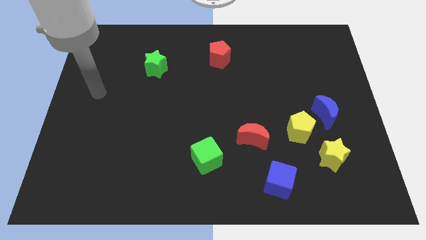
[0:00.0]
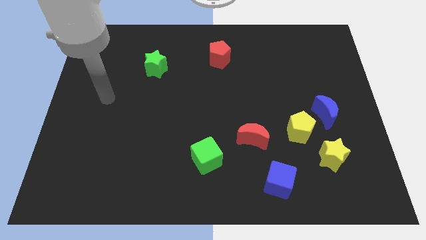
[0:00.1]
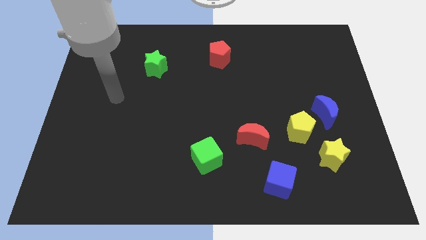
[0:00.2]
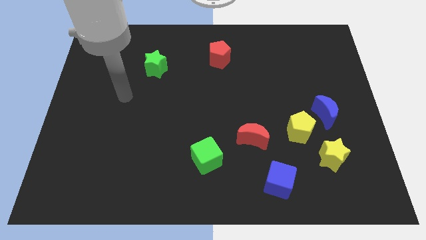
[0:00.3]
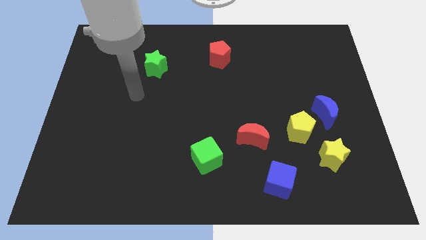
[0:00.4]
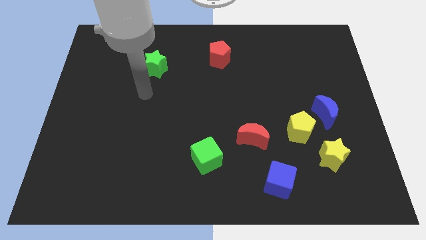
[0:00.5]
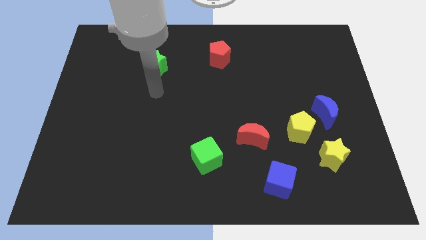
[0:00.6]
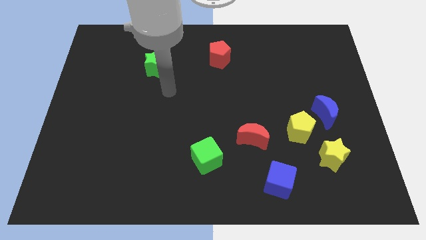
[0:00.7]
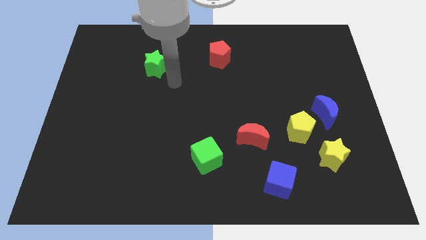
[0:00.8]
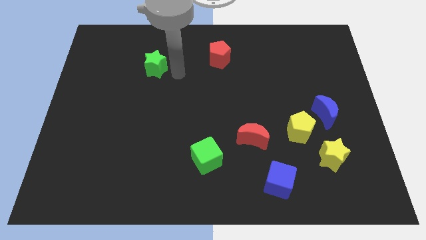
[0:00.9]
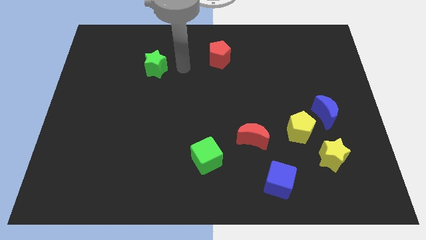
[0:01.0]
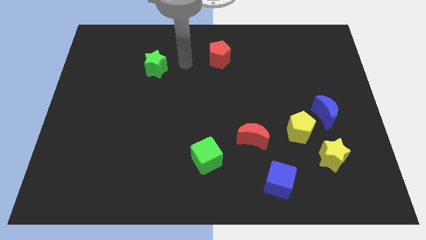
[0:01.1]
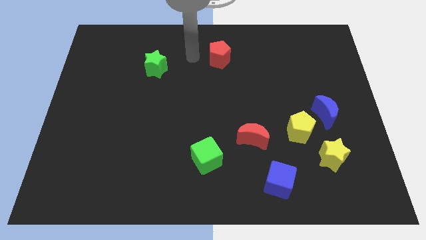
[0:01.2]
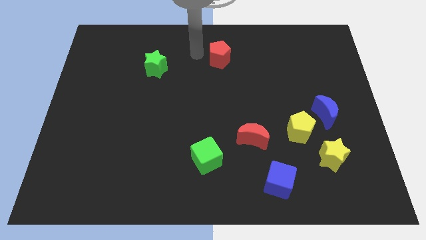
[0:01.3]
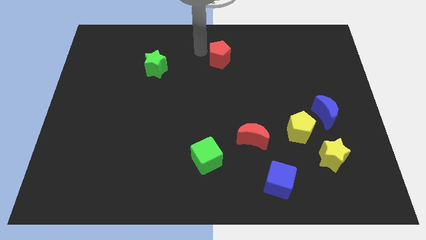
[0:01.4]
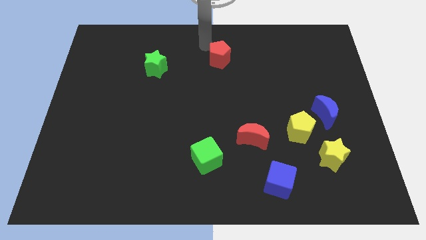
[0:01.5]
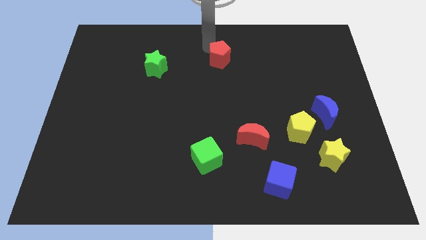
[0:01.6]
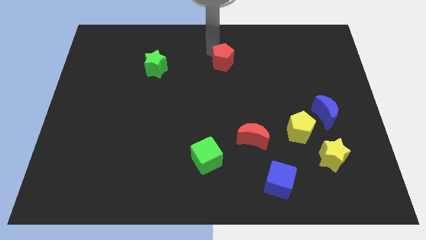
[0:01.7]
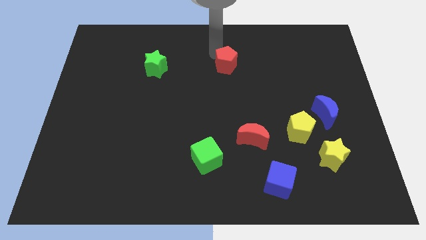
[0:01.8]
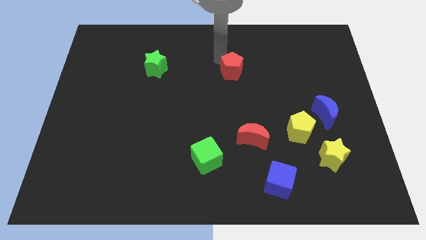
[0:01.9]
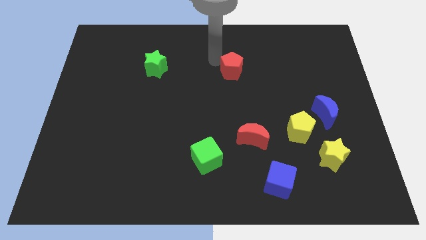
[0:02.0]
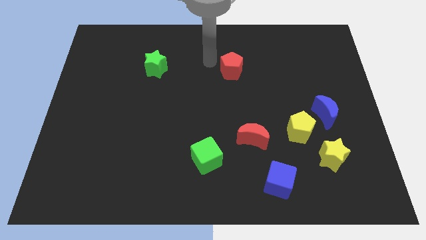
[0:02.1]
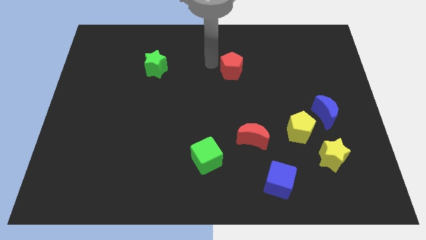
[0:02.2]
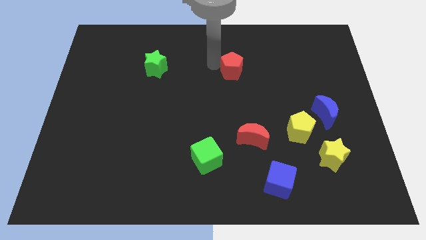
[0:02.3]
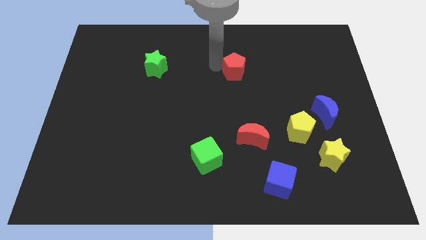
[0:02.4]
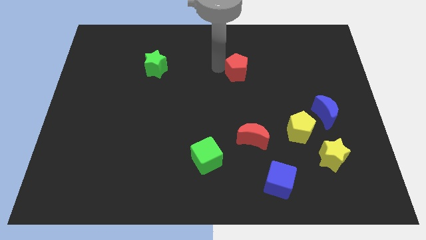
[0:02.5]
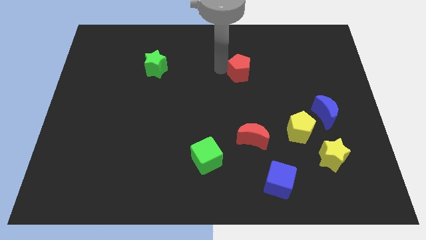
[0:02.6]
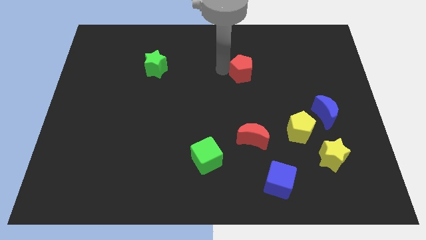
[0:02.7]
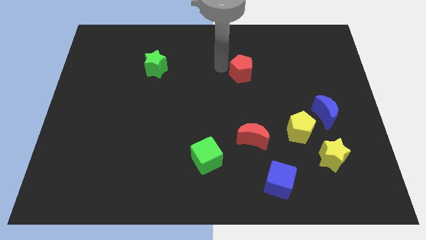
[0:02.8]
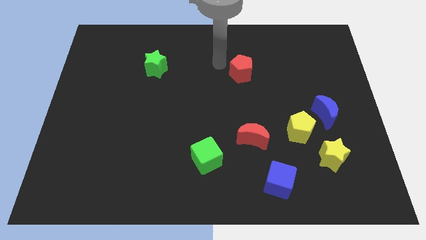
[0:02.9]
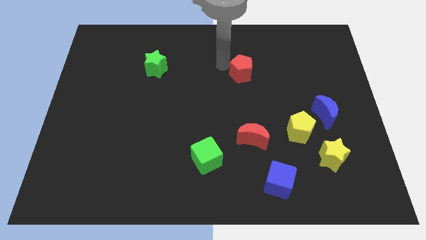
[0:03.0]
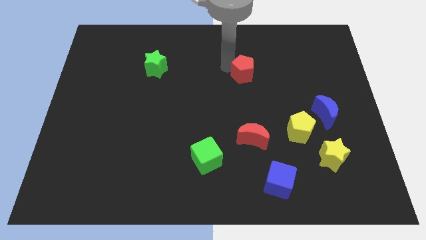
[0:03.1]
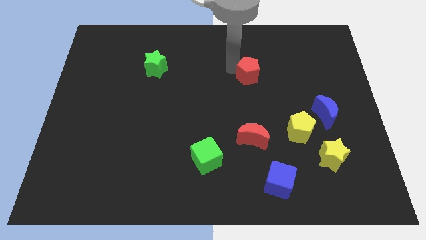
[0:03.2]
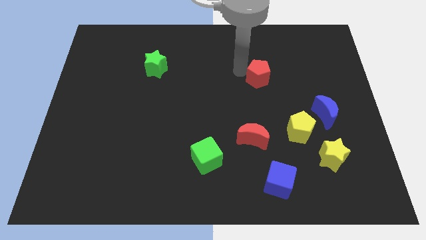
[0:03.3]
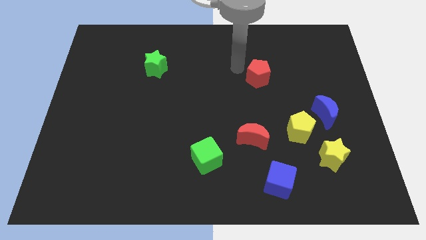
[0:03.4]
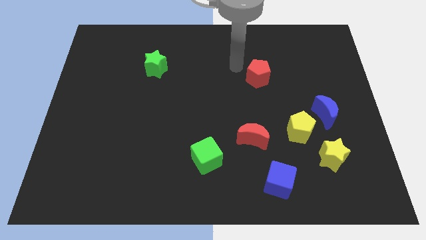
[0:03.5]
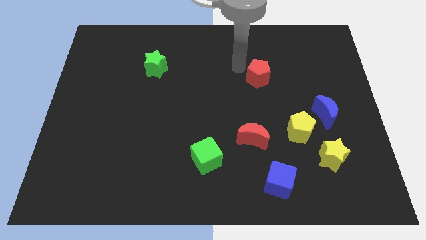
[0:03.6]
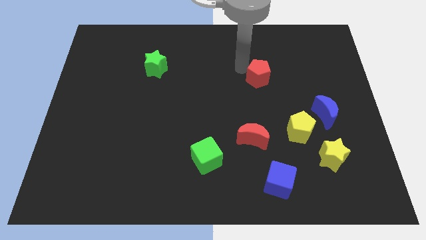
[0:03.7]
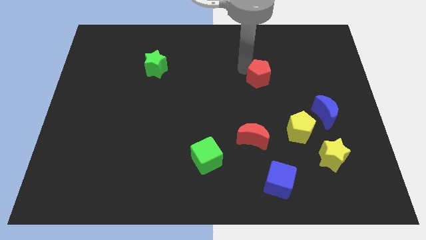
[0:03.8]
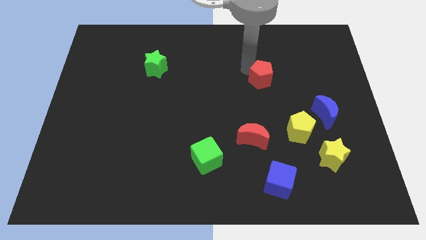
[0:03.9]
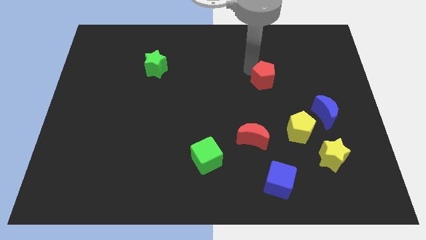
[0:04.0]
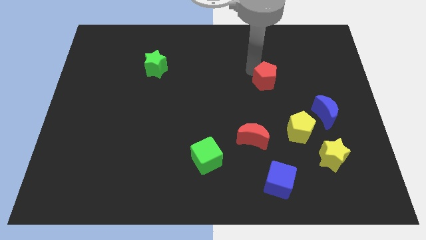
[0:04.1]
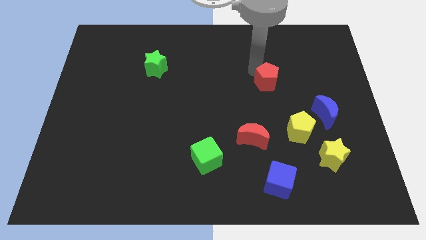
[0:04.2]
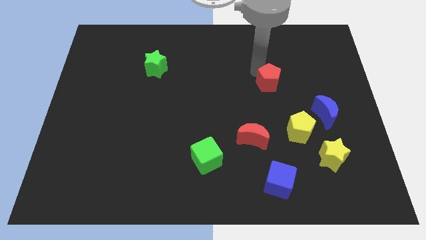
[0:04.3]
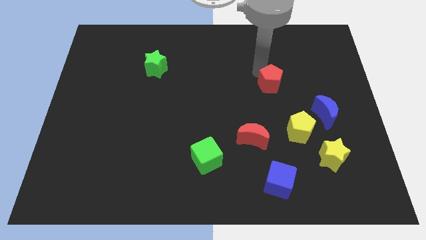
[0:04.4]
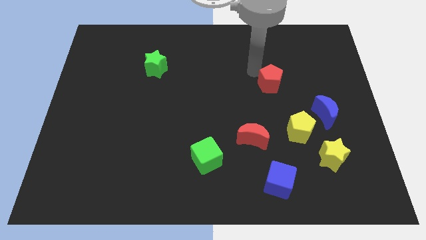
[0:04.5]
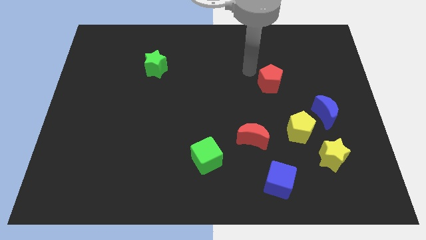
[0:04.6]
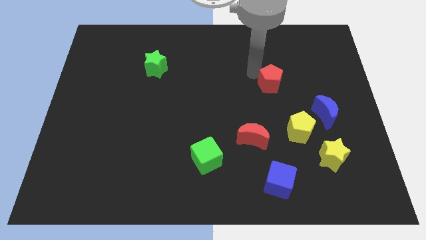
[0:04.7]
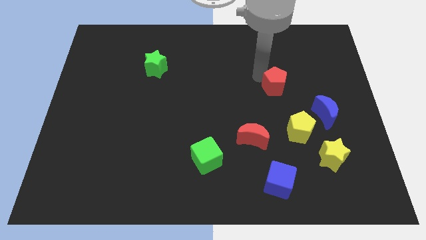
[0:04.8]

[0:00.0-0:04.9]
slide the red pentagon to the top of the yellow pentagon

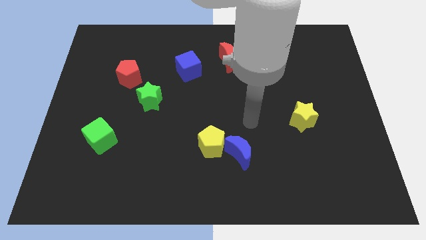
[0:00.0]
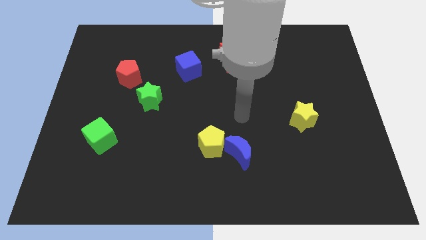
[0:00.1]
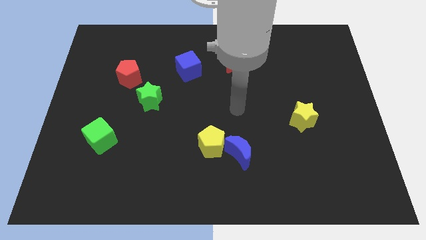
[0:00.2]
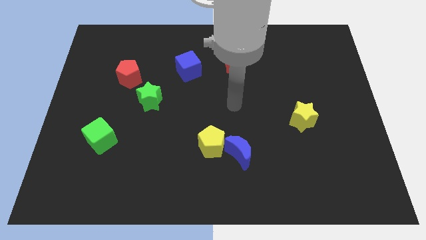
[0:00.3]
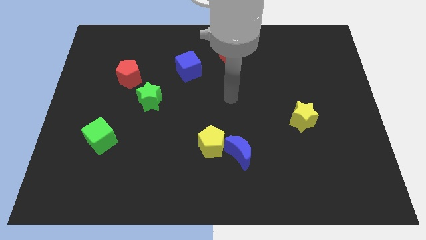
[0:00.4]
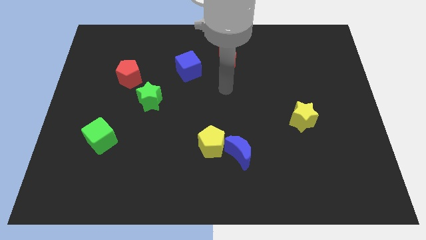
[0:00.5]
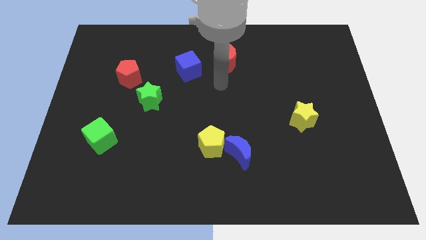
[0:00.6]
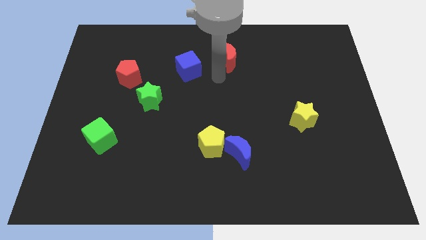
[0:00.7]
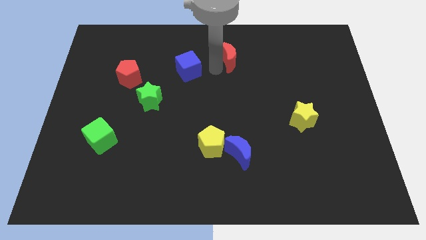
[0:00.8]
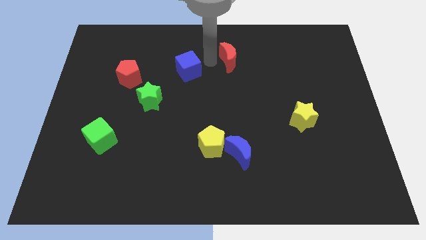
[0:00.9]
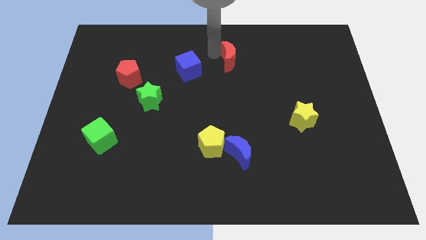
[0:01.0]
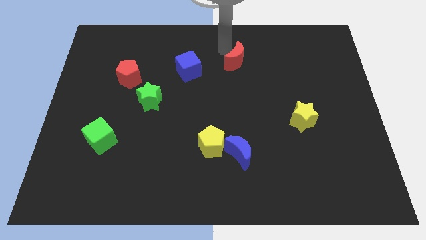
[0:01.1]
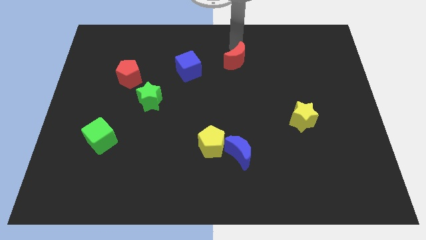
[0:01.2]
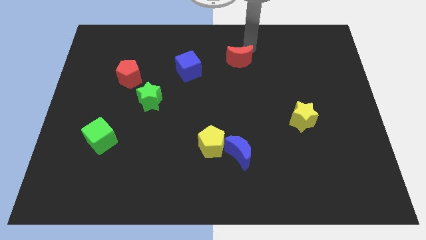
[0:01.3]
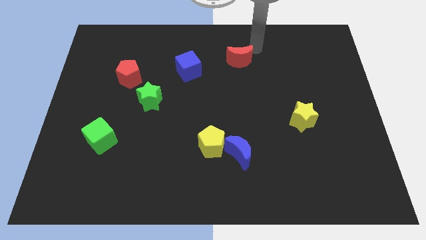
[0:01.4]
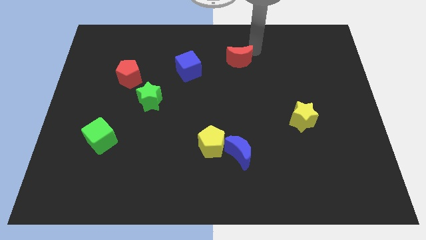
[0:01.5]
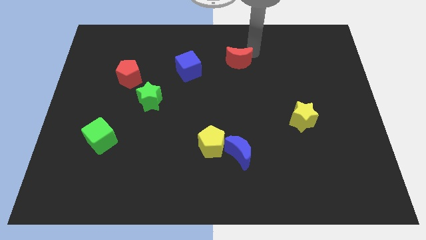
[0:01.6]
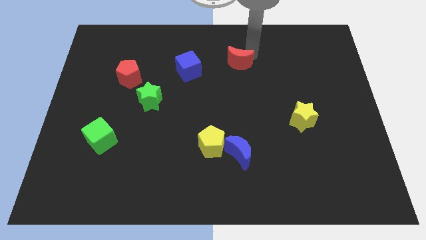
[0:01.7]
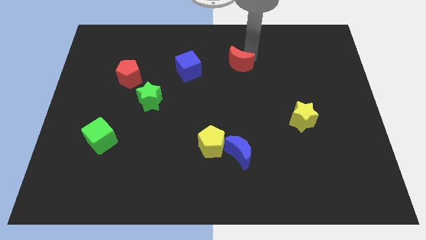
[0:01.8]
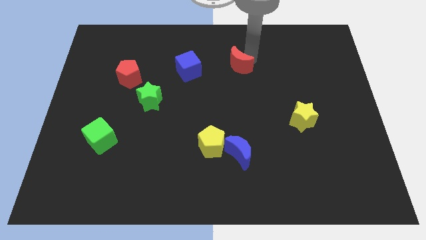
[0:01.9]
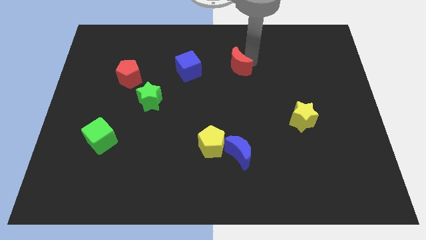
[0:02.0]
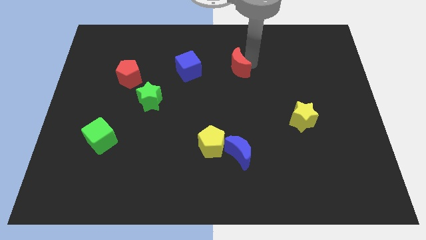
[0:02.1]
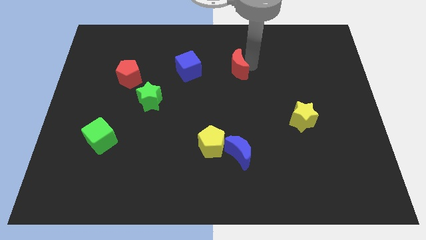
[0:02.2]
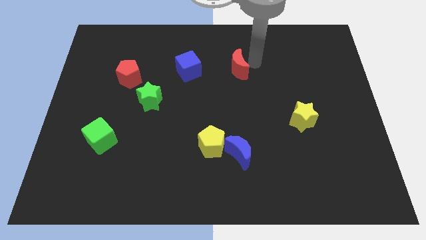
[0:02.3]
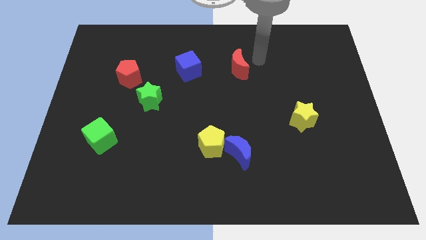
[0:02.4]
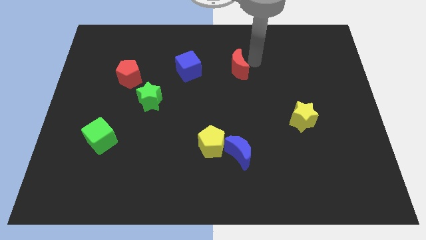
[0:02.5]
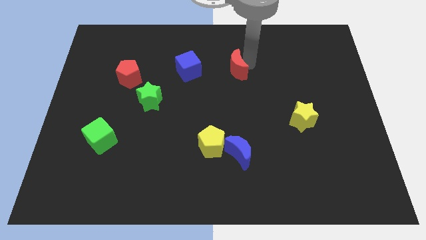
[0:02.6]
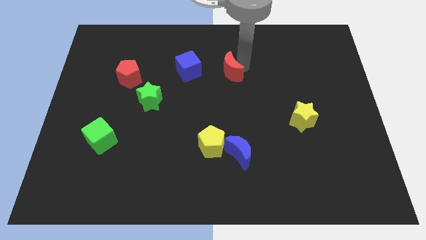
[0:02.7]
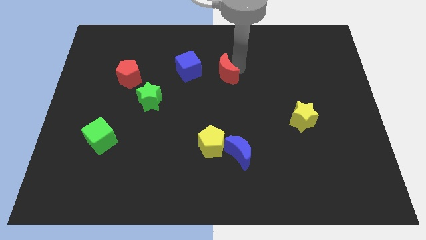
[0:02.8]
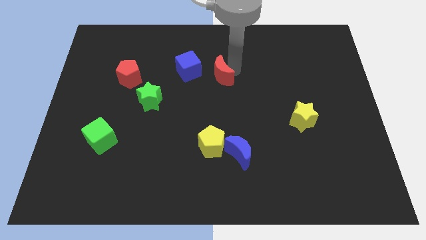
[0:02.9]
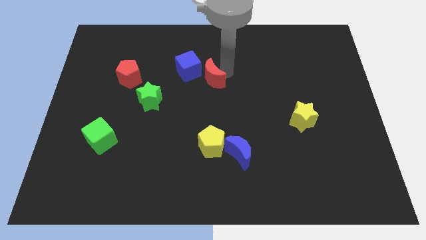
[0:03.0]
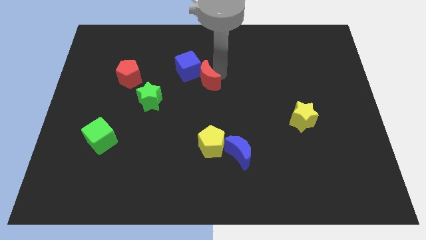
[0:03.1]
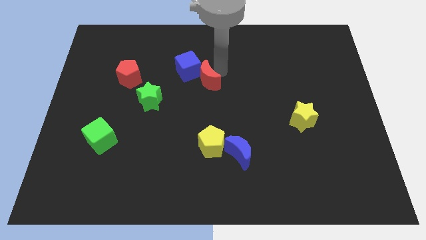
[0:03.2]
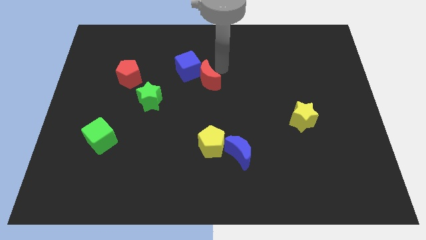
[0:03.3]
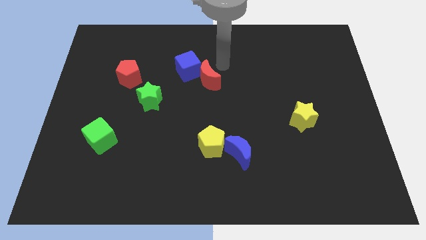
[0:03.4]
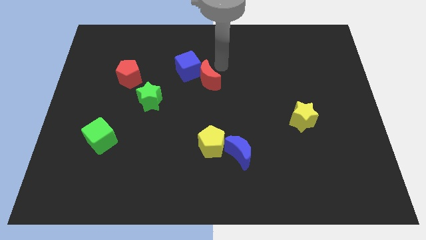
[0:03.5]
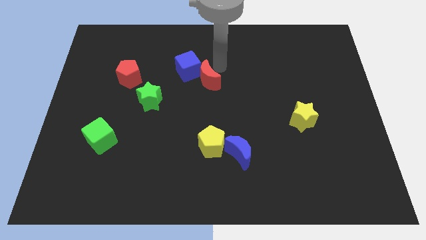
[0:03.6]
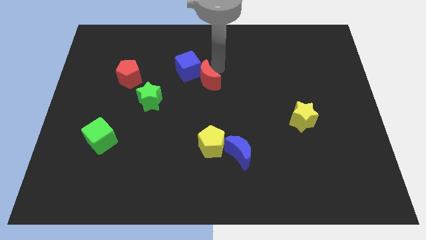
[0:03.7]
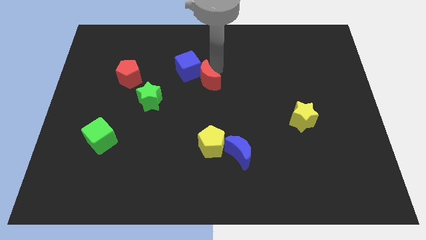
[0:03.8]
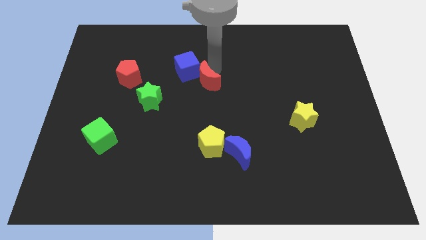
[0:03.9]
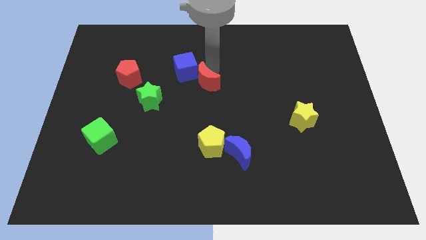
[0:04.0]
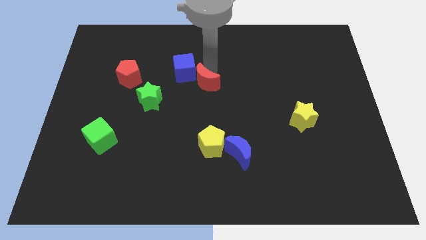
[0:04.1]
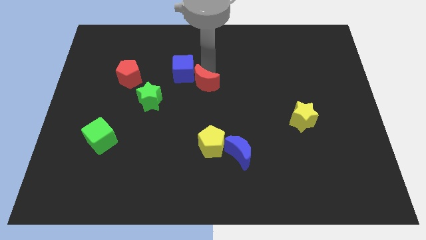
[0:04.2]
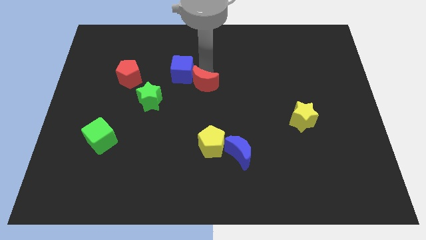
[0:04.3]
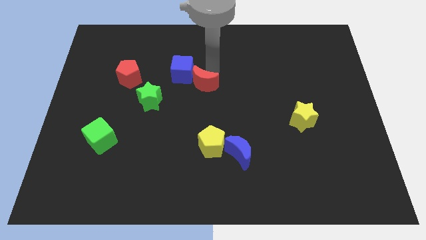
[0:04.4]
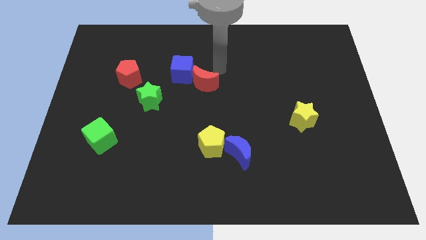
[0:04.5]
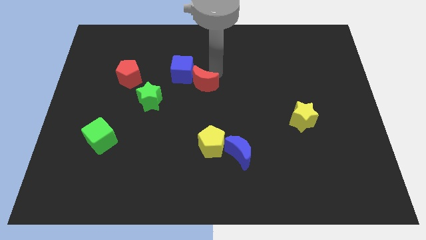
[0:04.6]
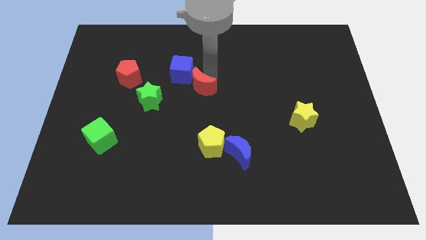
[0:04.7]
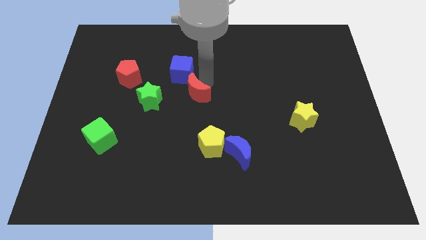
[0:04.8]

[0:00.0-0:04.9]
slide the red moon to the bottom of the blue cube
